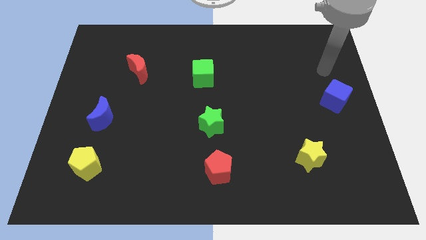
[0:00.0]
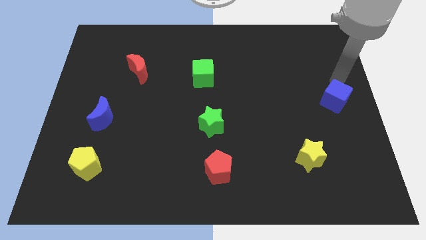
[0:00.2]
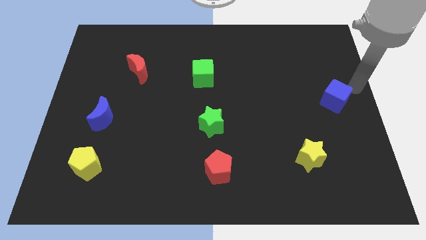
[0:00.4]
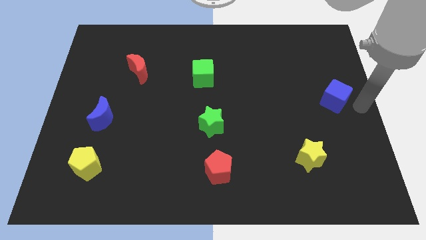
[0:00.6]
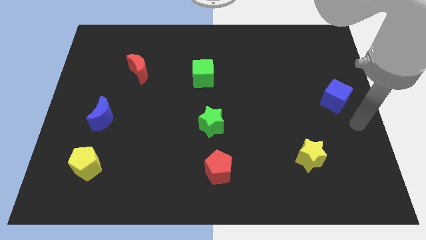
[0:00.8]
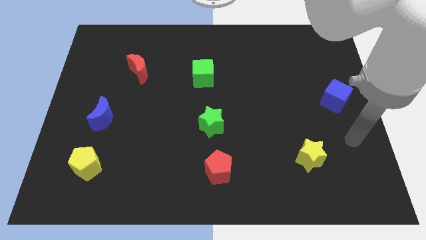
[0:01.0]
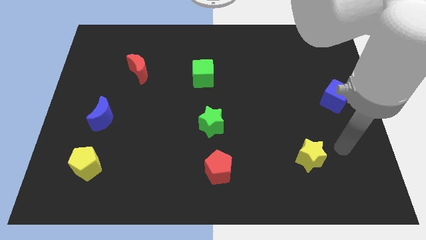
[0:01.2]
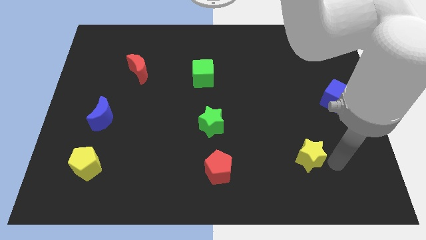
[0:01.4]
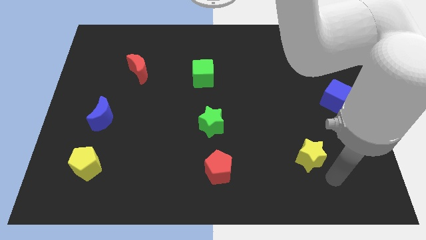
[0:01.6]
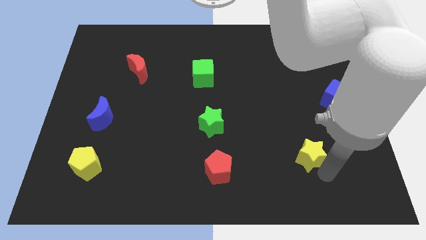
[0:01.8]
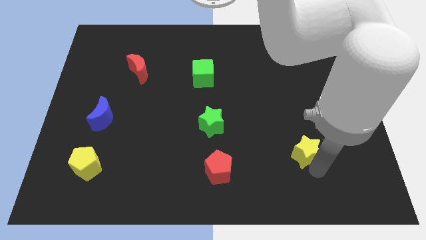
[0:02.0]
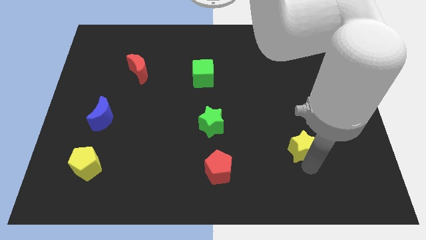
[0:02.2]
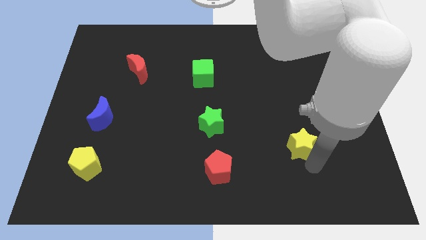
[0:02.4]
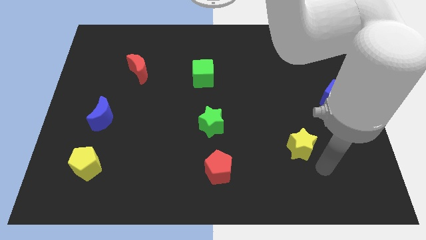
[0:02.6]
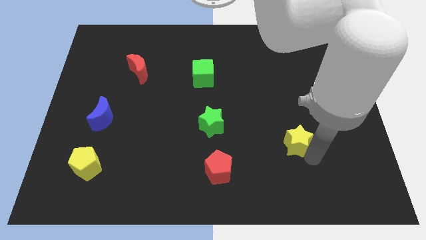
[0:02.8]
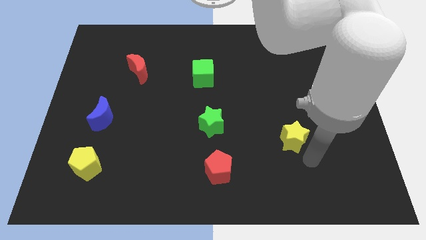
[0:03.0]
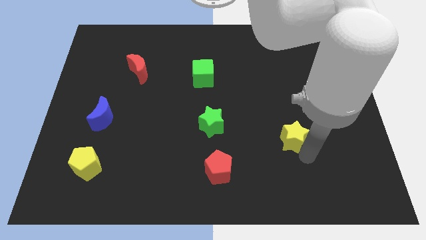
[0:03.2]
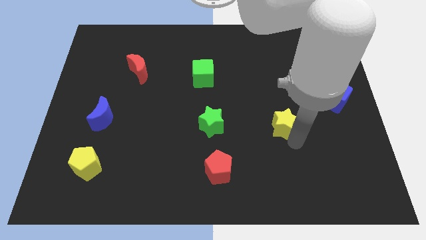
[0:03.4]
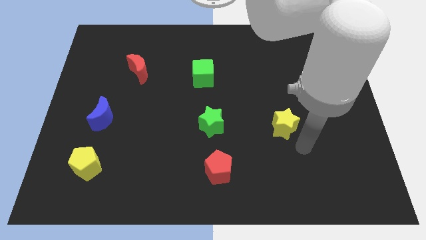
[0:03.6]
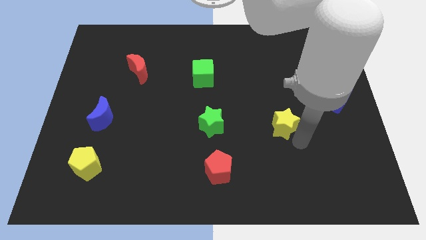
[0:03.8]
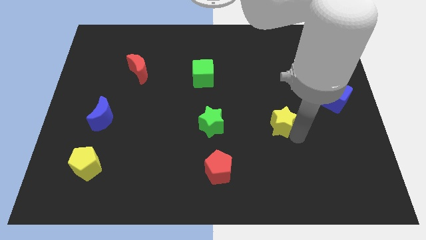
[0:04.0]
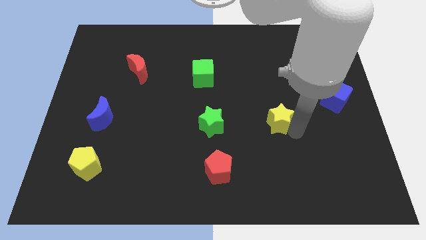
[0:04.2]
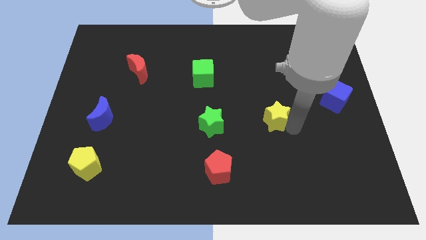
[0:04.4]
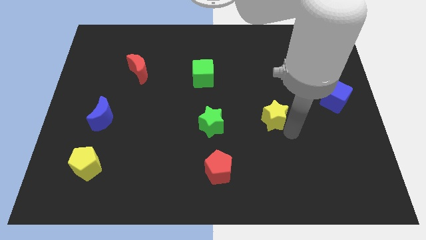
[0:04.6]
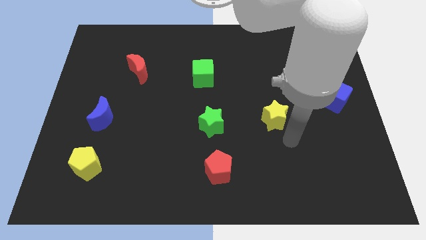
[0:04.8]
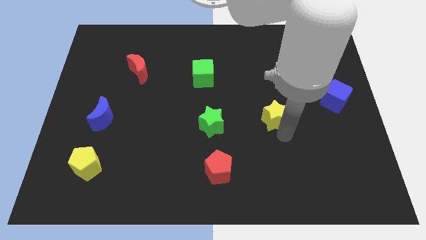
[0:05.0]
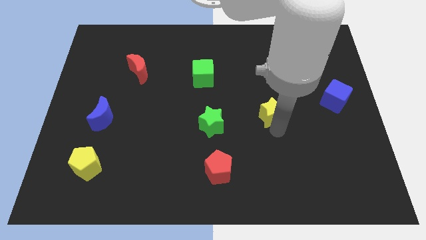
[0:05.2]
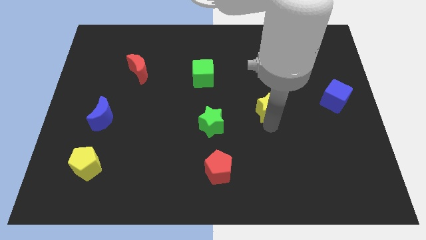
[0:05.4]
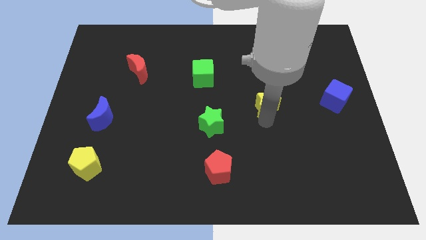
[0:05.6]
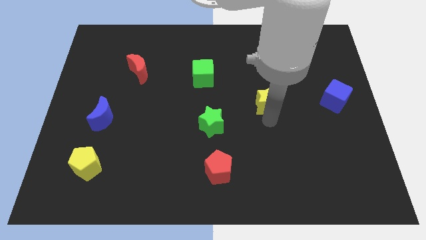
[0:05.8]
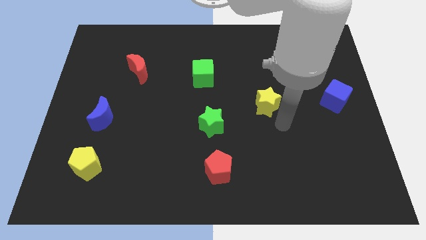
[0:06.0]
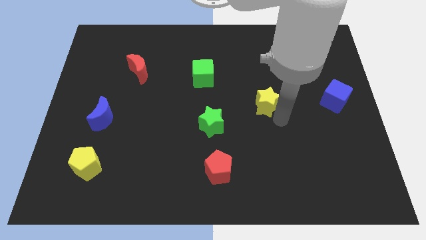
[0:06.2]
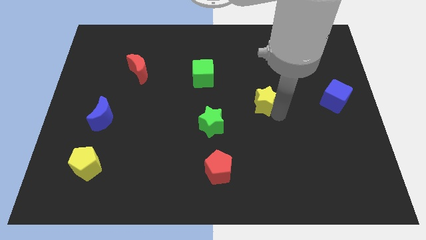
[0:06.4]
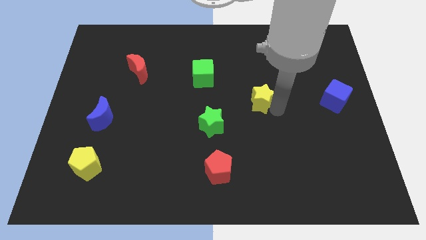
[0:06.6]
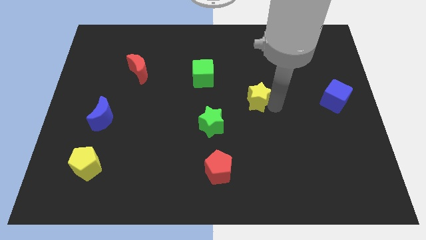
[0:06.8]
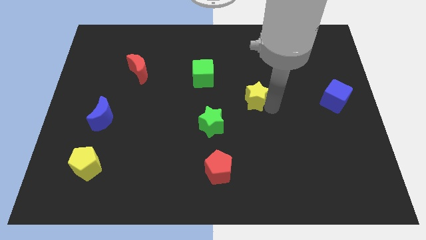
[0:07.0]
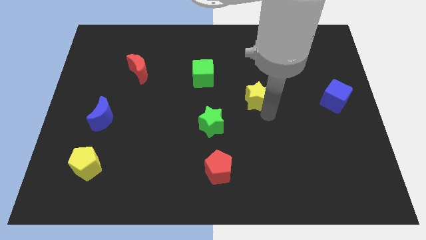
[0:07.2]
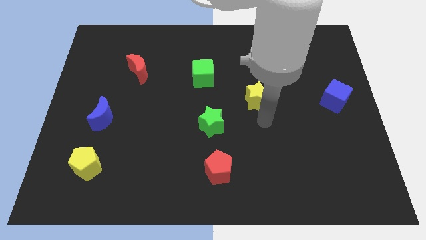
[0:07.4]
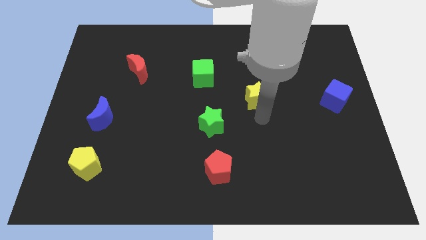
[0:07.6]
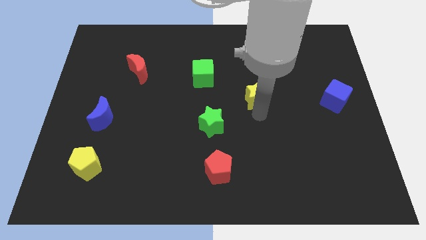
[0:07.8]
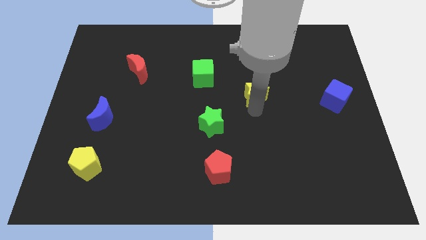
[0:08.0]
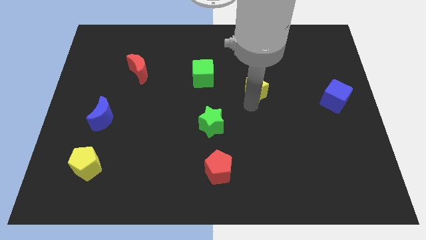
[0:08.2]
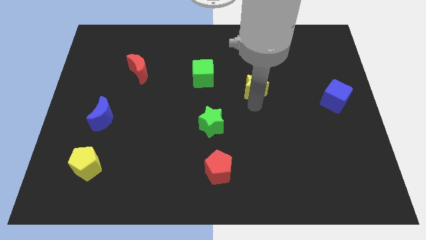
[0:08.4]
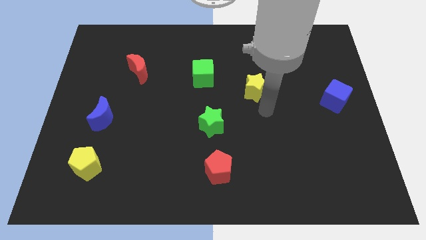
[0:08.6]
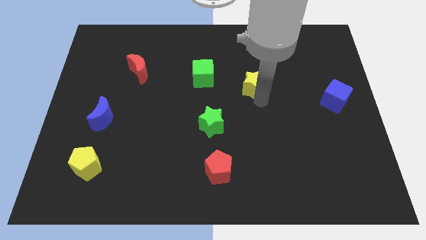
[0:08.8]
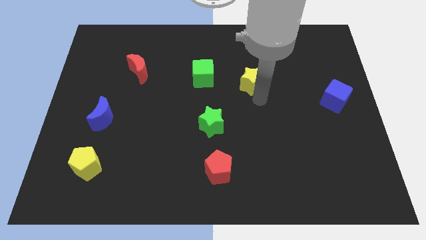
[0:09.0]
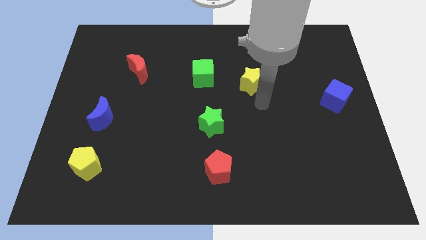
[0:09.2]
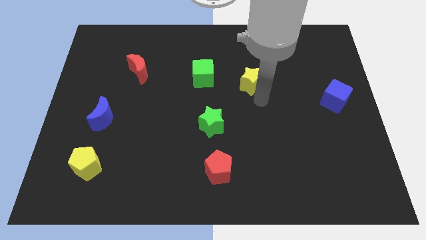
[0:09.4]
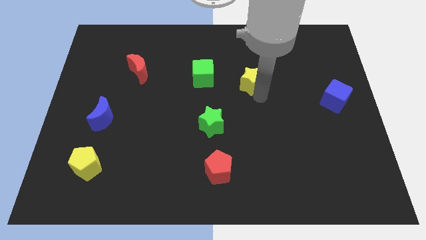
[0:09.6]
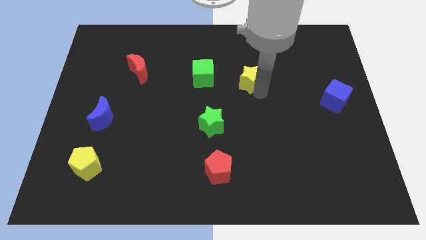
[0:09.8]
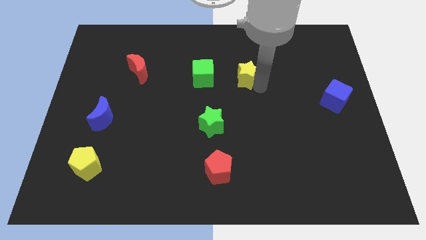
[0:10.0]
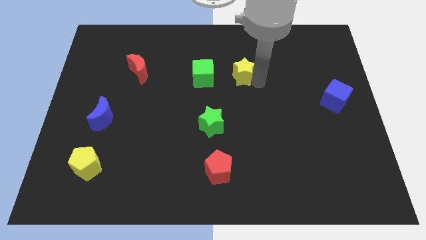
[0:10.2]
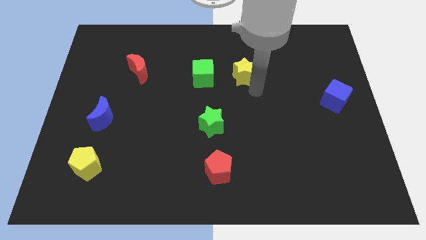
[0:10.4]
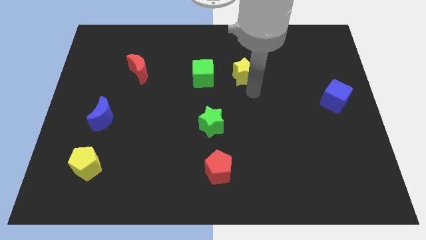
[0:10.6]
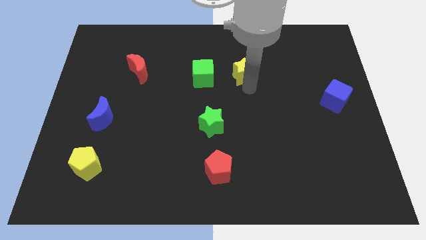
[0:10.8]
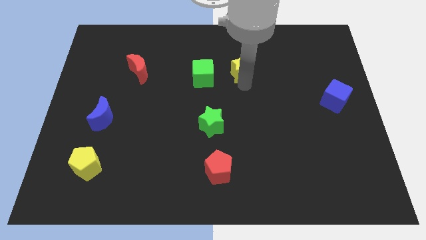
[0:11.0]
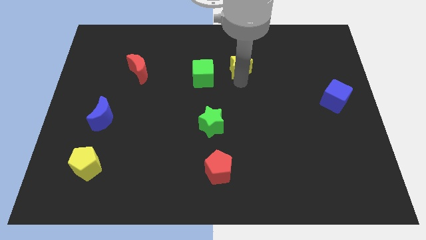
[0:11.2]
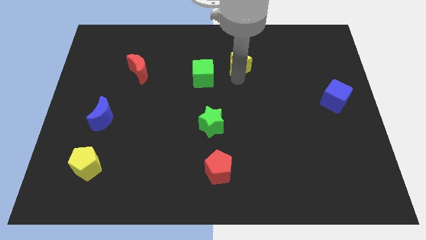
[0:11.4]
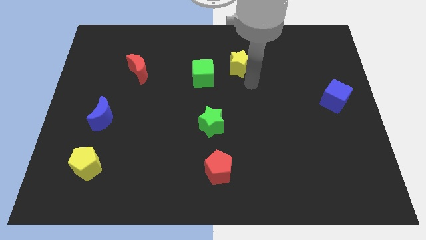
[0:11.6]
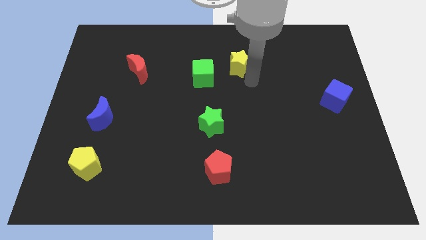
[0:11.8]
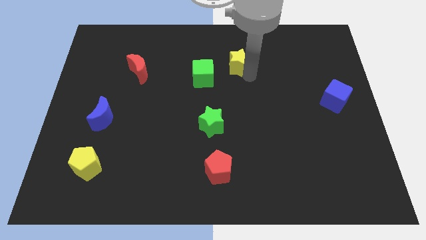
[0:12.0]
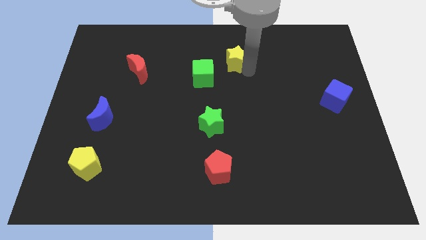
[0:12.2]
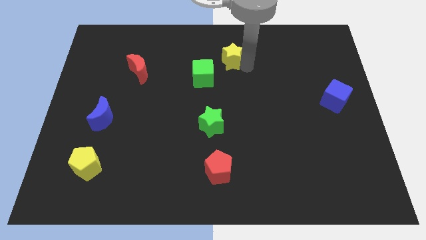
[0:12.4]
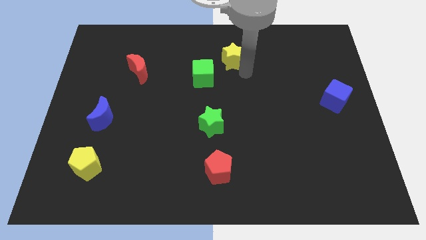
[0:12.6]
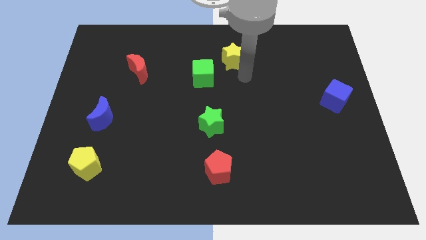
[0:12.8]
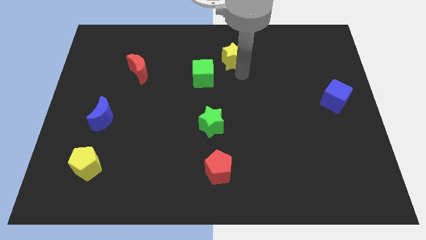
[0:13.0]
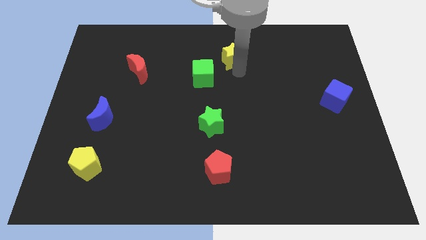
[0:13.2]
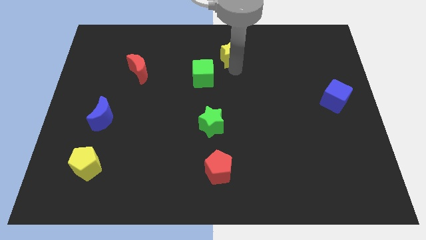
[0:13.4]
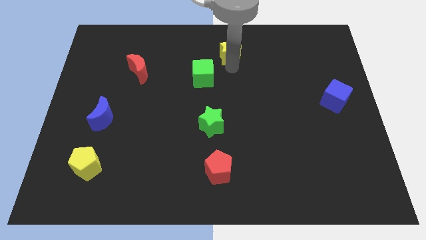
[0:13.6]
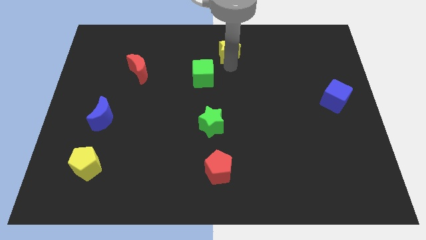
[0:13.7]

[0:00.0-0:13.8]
move the yellow star to the top

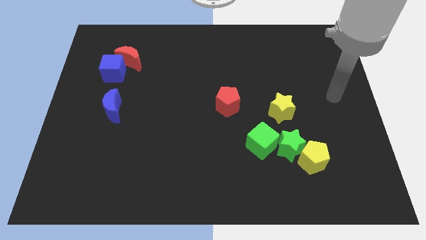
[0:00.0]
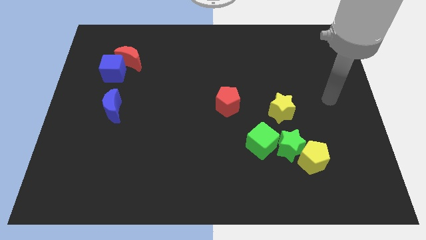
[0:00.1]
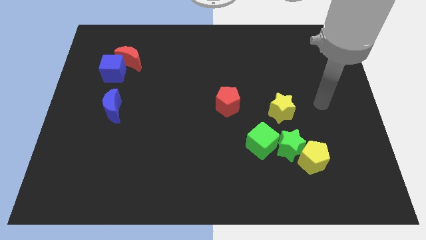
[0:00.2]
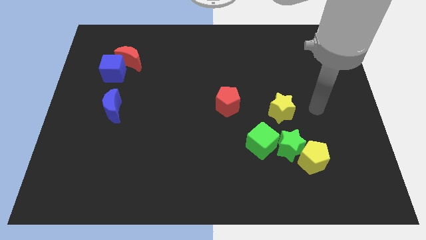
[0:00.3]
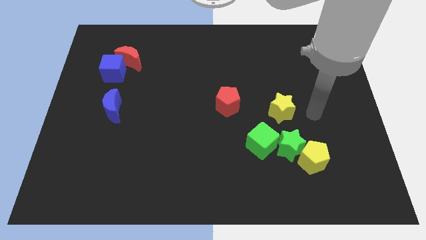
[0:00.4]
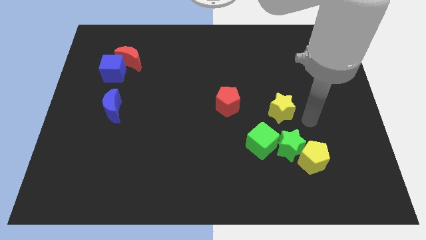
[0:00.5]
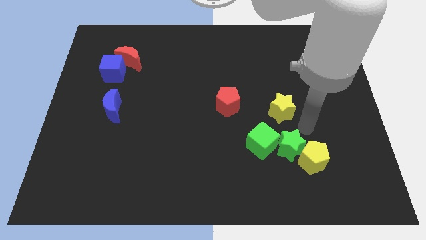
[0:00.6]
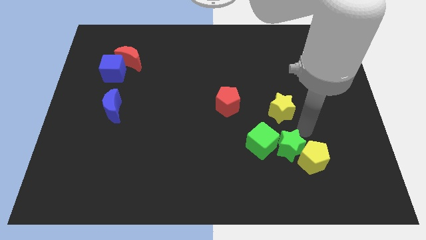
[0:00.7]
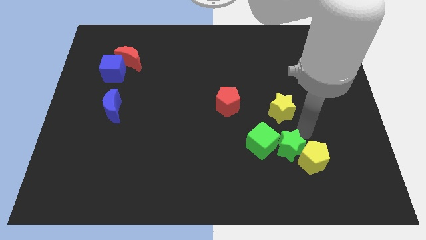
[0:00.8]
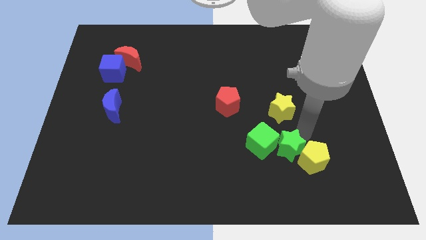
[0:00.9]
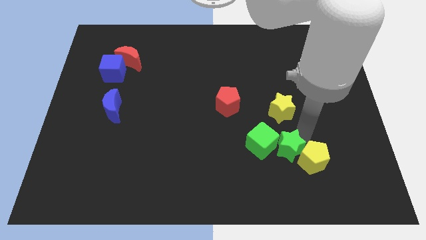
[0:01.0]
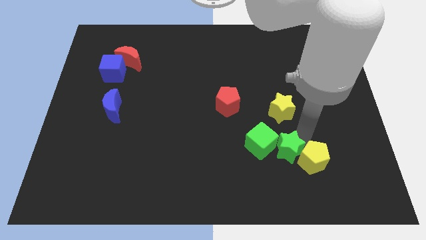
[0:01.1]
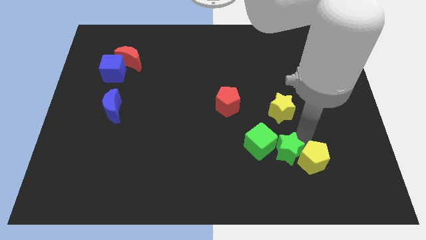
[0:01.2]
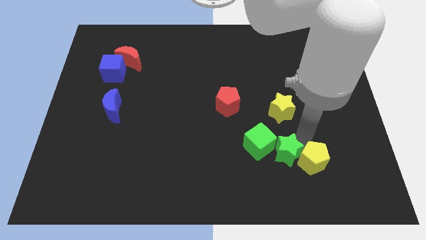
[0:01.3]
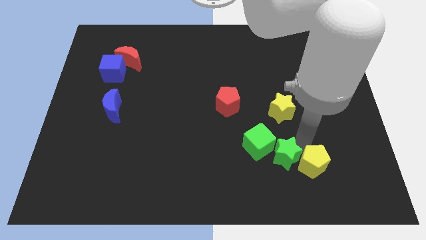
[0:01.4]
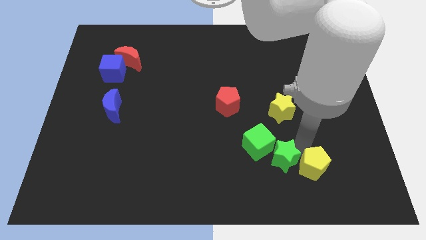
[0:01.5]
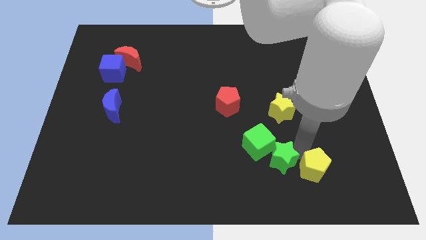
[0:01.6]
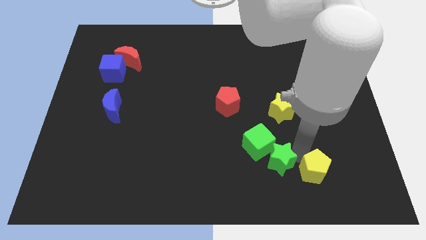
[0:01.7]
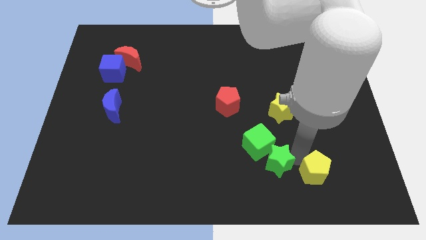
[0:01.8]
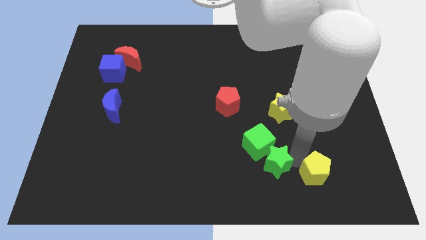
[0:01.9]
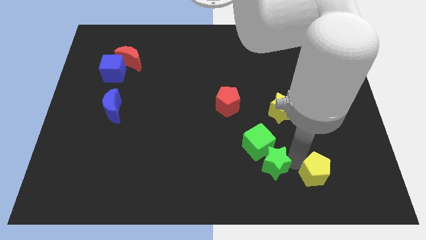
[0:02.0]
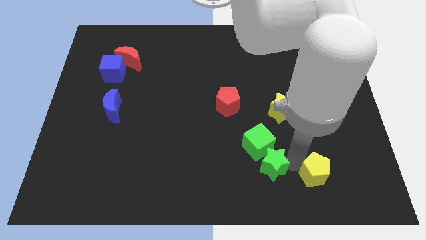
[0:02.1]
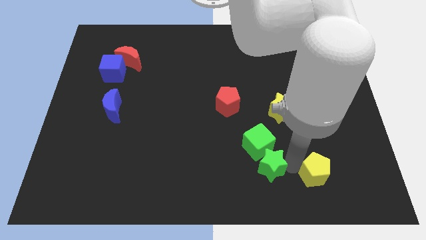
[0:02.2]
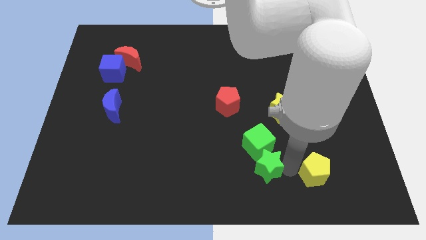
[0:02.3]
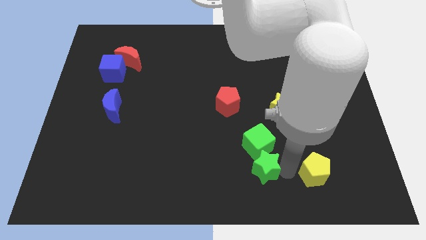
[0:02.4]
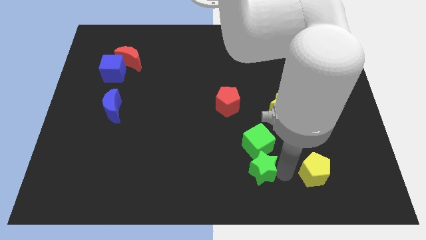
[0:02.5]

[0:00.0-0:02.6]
move the green star to the bottom
